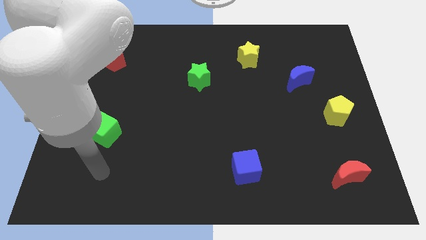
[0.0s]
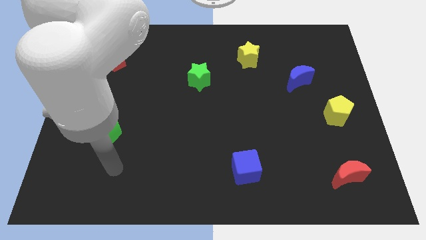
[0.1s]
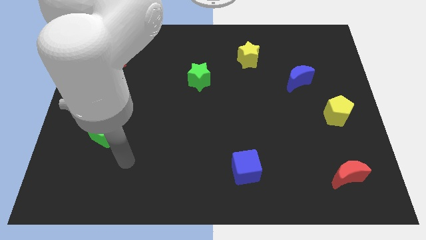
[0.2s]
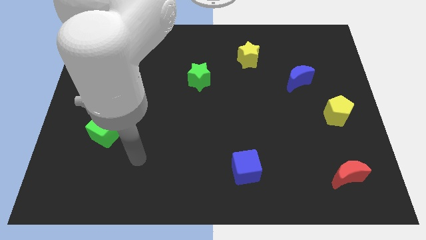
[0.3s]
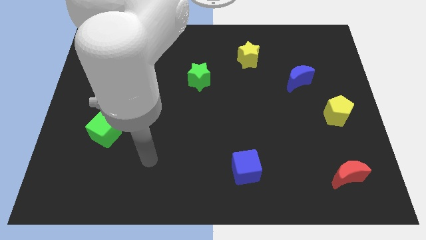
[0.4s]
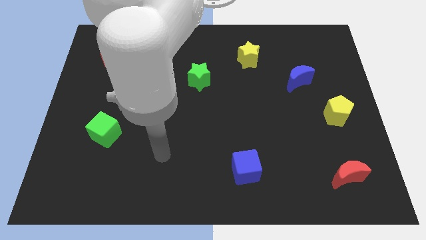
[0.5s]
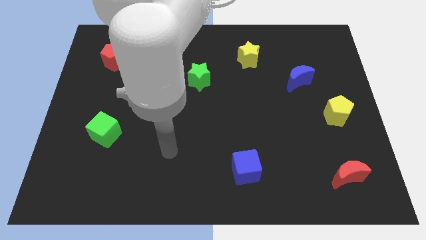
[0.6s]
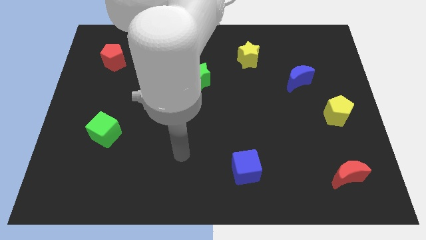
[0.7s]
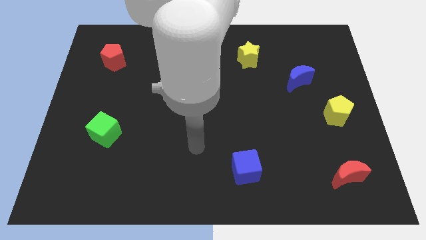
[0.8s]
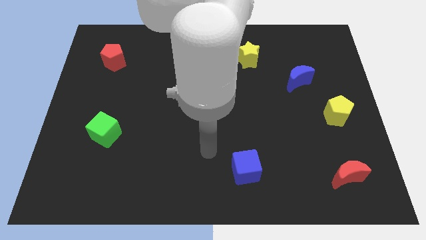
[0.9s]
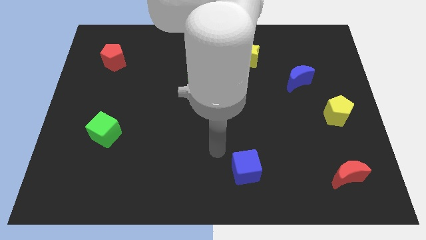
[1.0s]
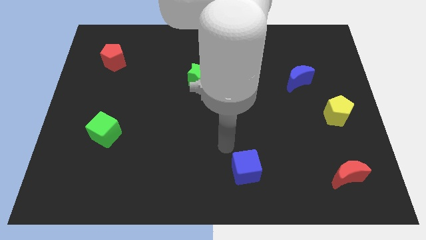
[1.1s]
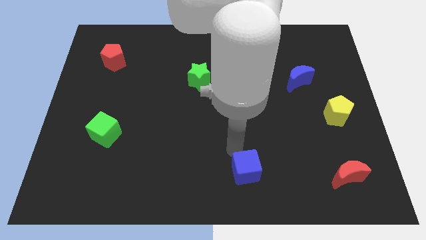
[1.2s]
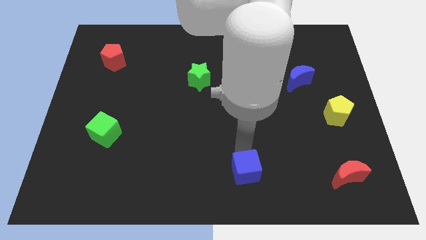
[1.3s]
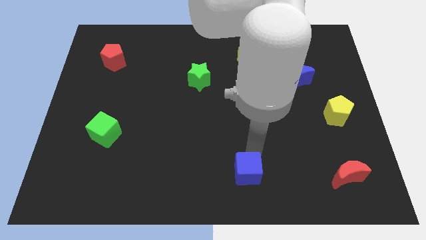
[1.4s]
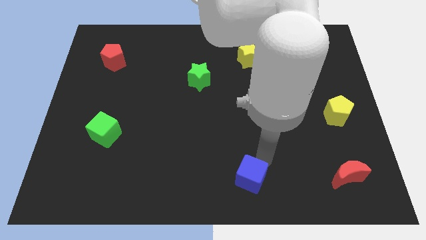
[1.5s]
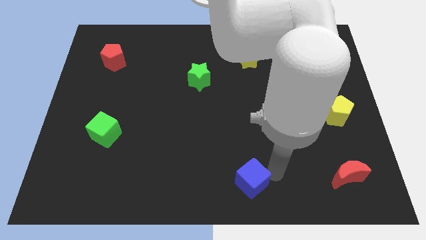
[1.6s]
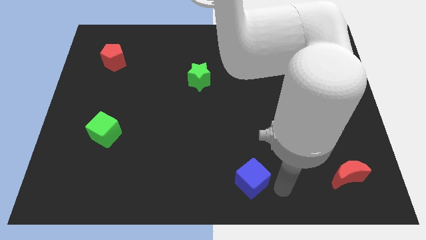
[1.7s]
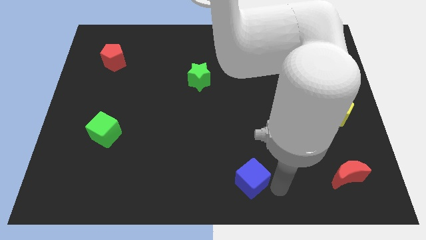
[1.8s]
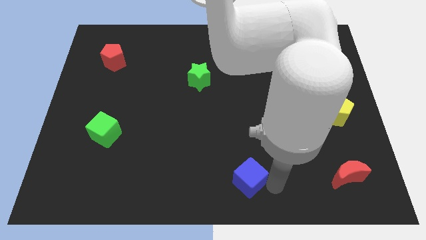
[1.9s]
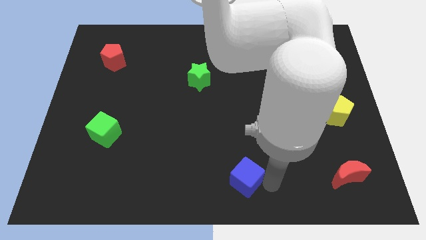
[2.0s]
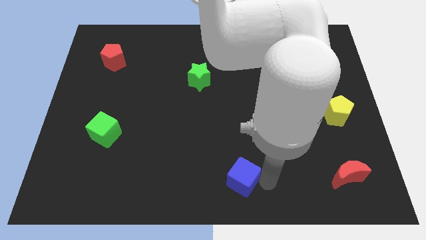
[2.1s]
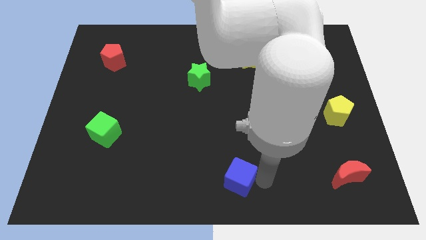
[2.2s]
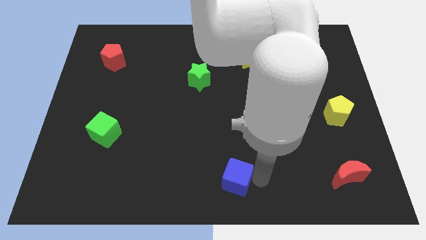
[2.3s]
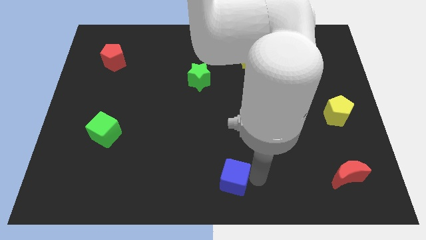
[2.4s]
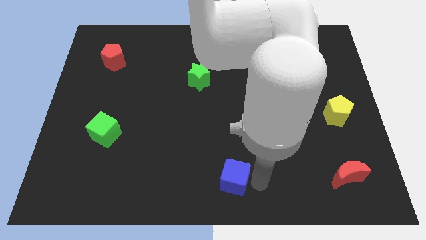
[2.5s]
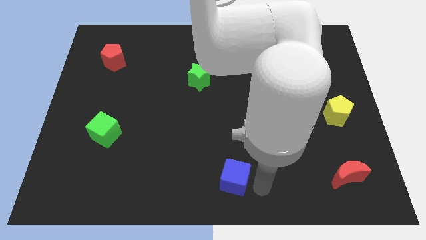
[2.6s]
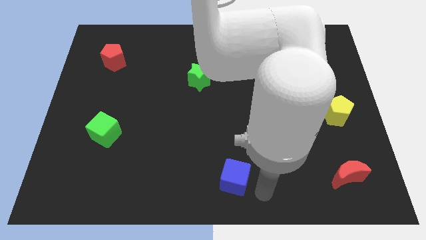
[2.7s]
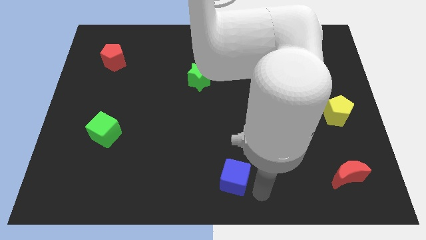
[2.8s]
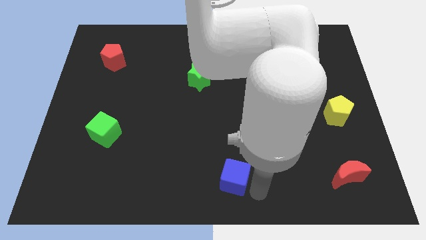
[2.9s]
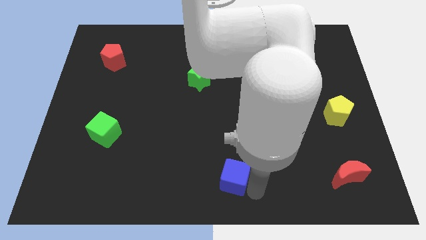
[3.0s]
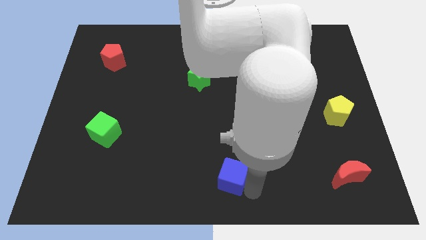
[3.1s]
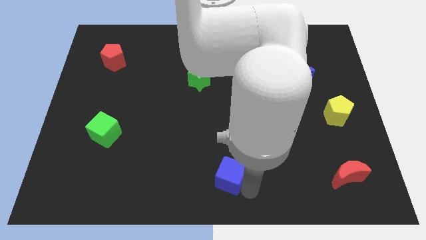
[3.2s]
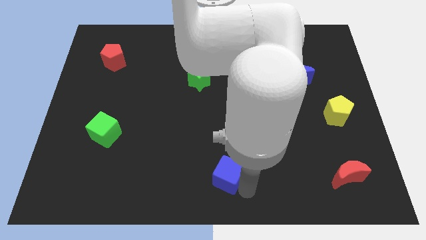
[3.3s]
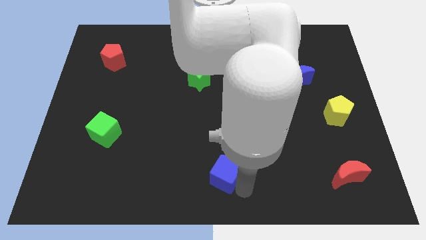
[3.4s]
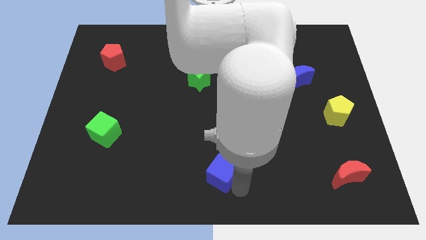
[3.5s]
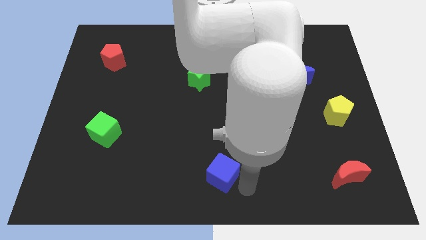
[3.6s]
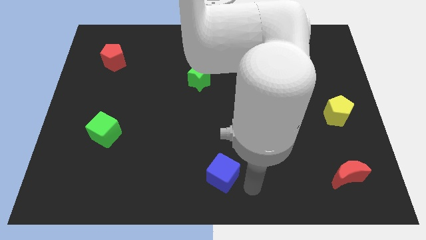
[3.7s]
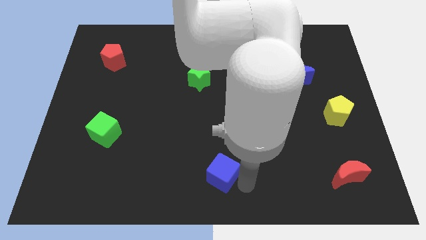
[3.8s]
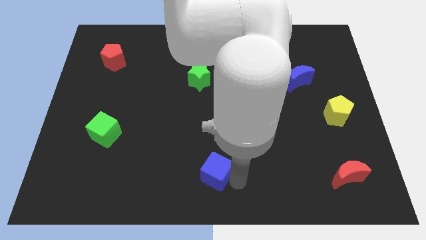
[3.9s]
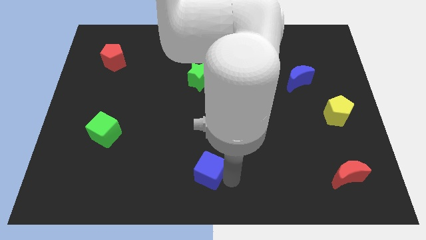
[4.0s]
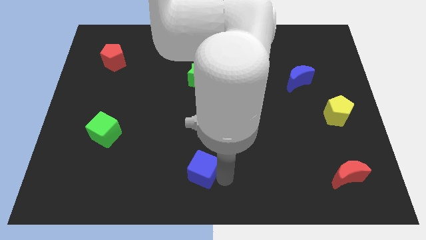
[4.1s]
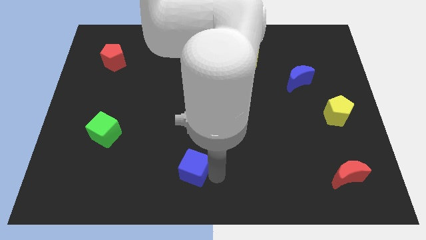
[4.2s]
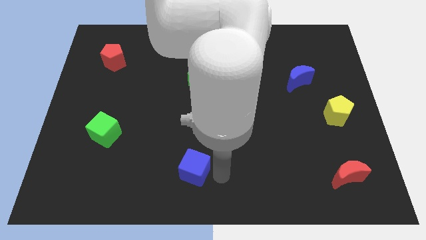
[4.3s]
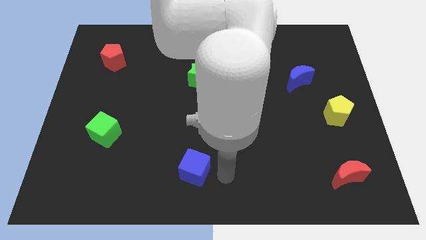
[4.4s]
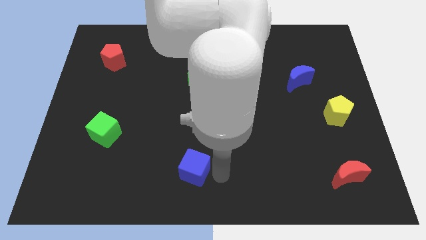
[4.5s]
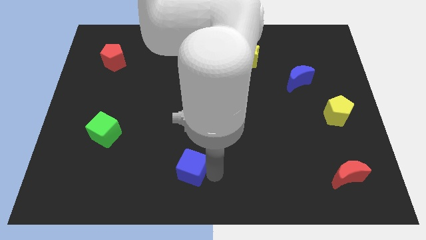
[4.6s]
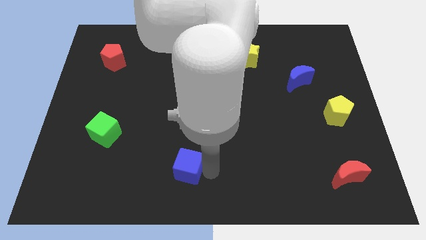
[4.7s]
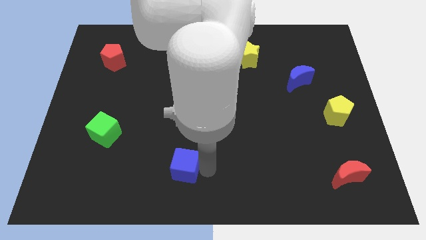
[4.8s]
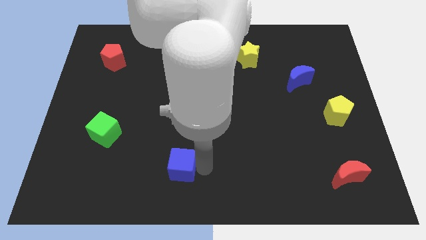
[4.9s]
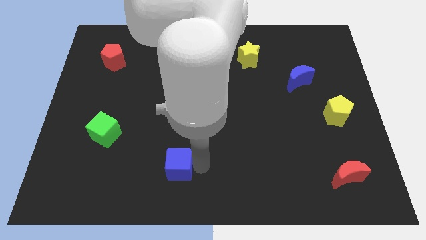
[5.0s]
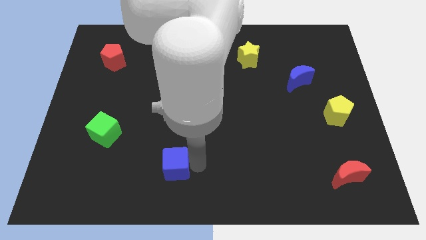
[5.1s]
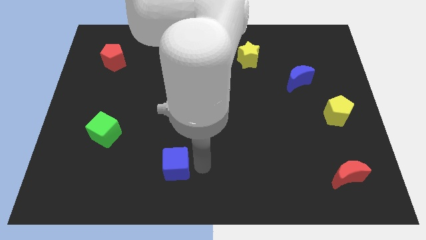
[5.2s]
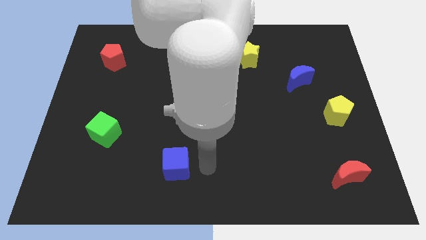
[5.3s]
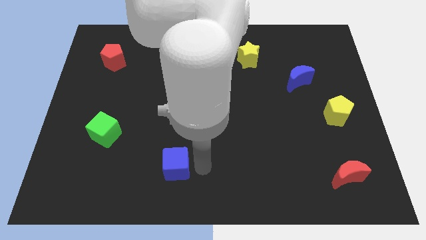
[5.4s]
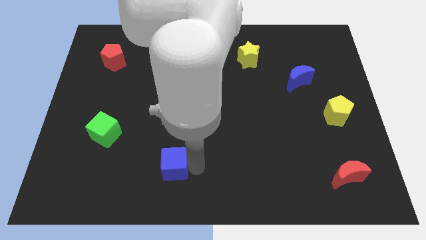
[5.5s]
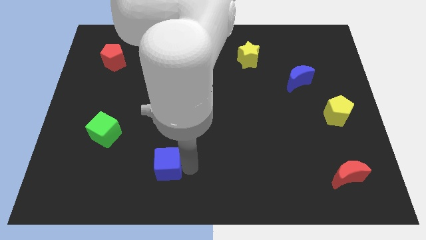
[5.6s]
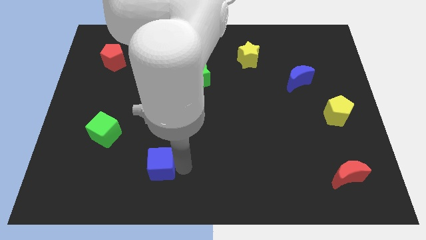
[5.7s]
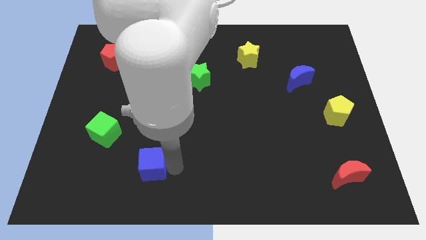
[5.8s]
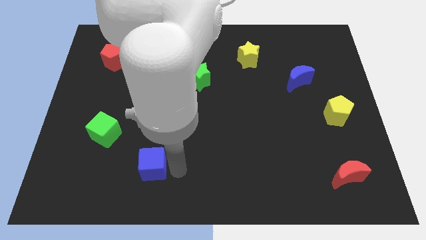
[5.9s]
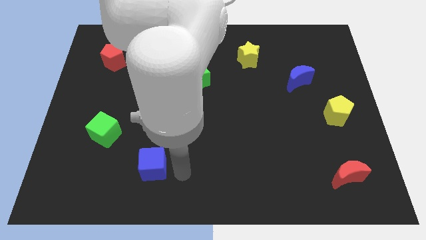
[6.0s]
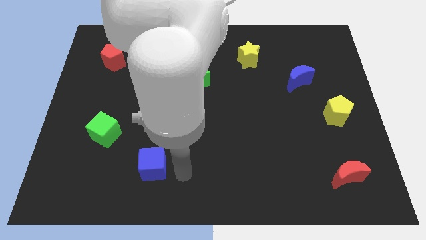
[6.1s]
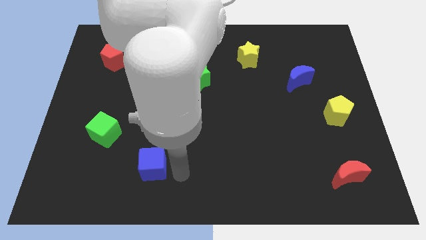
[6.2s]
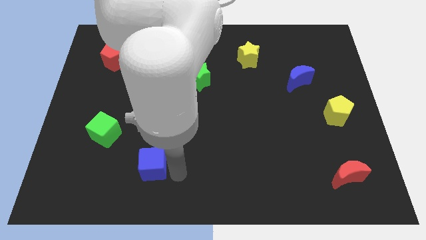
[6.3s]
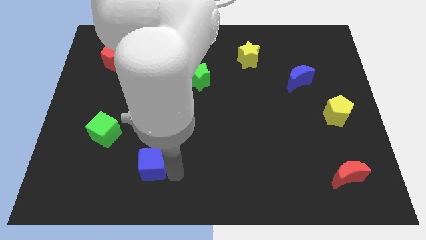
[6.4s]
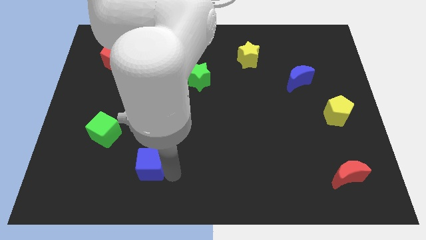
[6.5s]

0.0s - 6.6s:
move the blue cube left

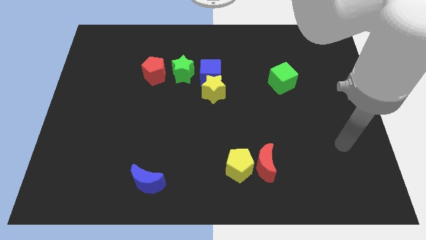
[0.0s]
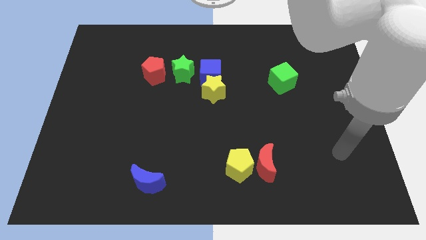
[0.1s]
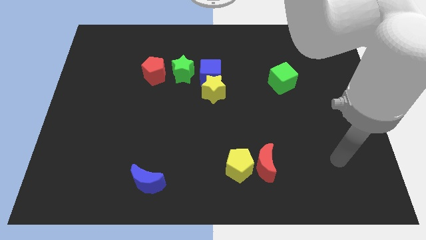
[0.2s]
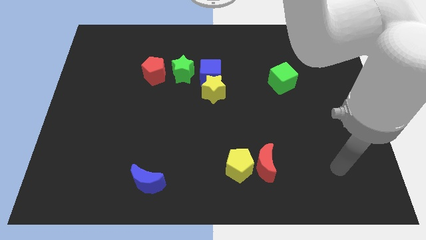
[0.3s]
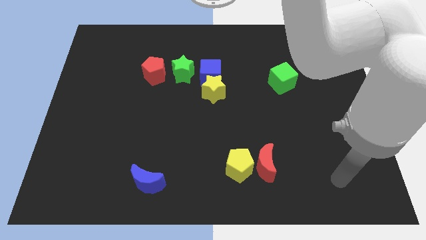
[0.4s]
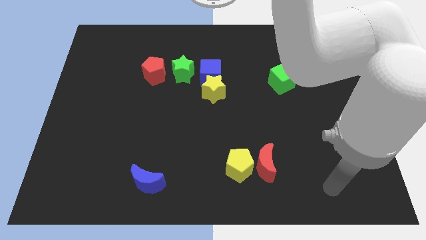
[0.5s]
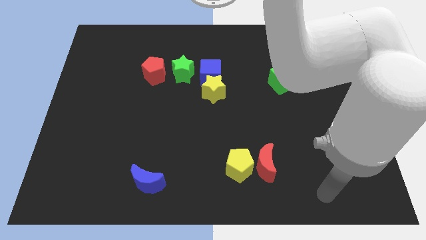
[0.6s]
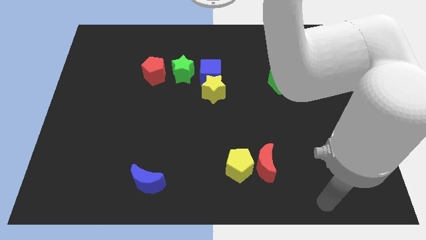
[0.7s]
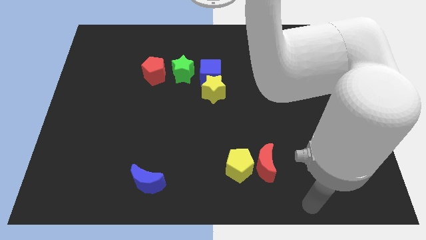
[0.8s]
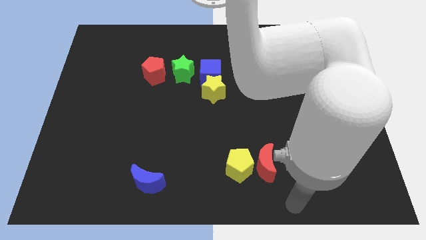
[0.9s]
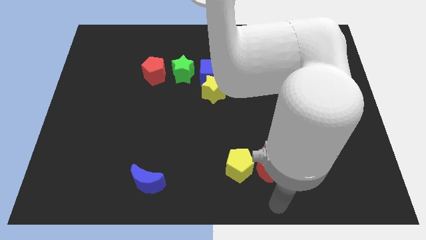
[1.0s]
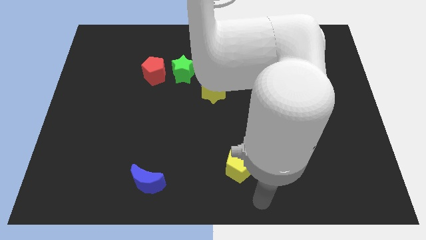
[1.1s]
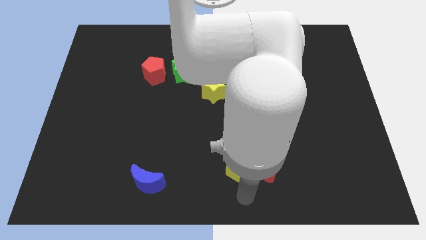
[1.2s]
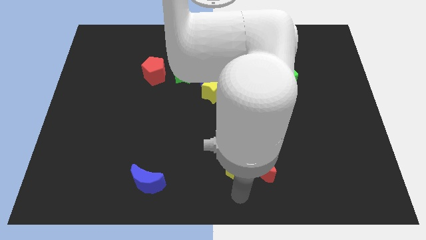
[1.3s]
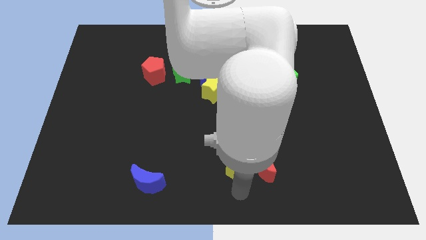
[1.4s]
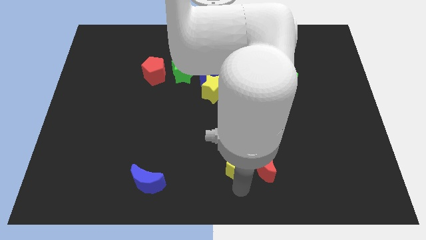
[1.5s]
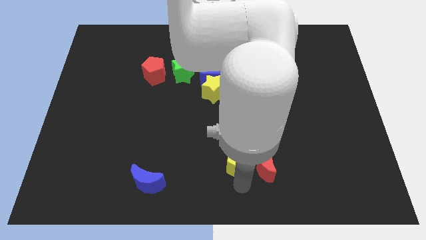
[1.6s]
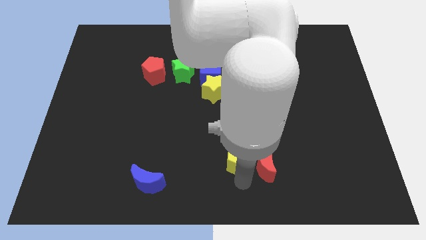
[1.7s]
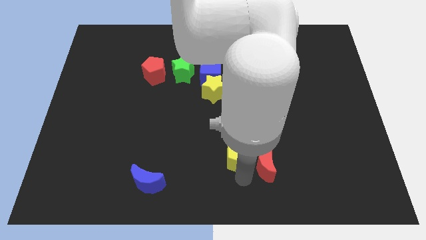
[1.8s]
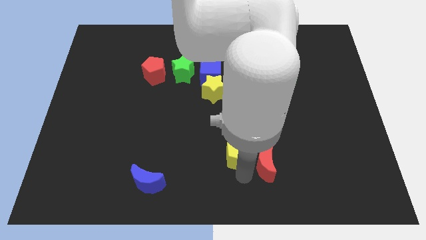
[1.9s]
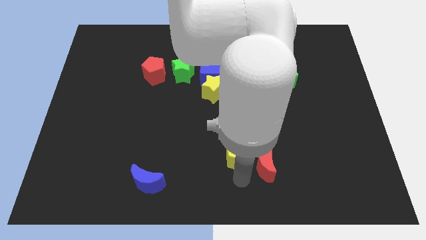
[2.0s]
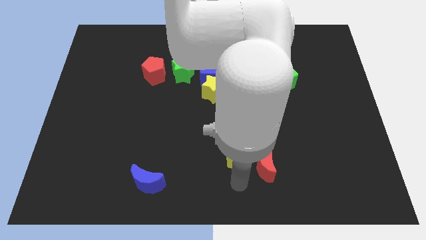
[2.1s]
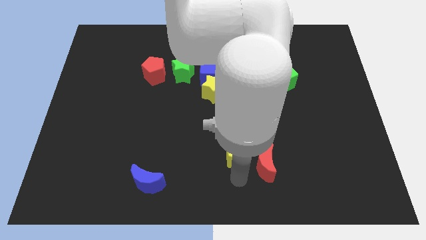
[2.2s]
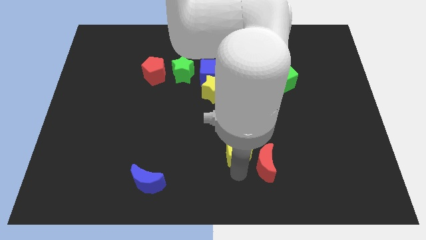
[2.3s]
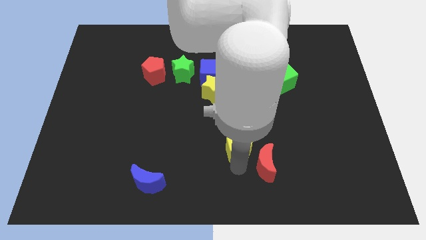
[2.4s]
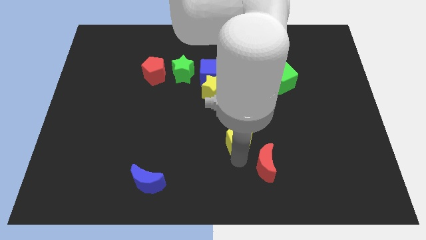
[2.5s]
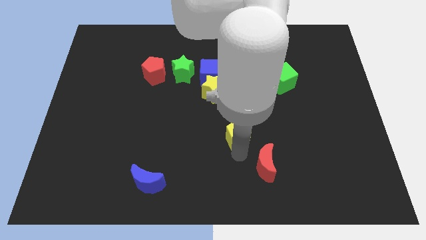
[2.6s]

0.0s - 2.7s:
slightly slide the yellow pentagon upwards
